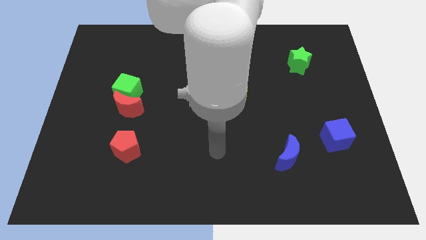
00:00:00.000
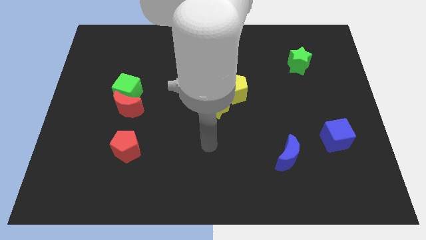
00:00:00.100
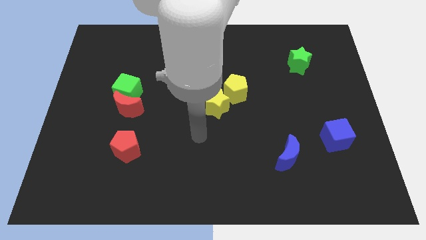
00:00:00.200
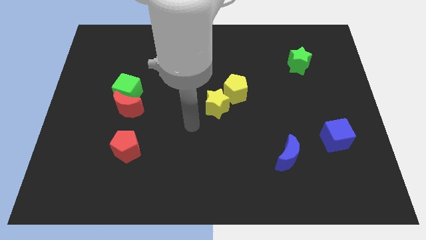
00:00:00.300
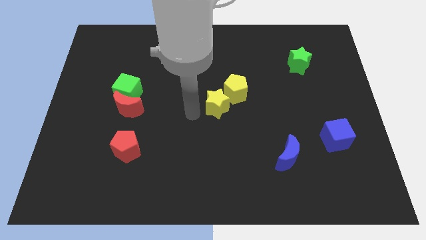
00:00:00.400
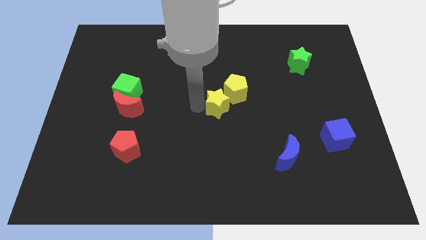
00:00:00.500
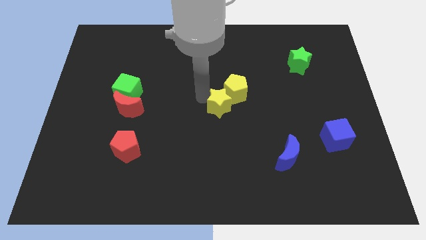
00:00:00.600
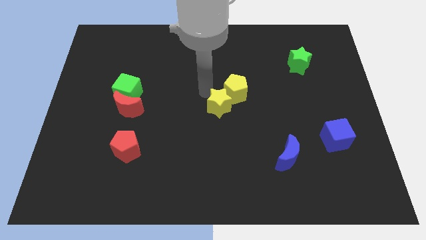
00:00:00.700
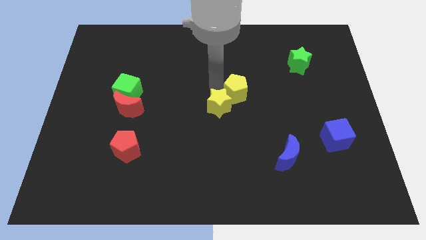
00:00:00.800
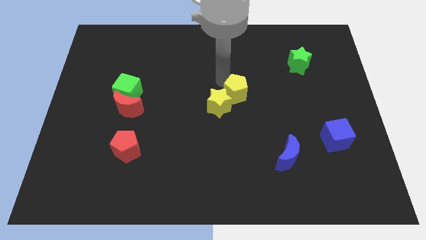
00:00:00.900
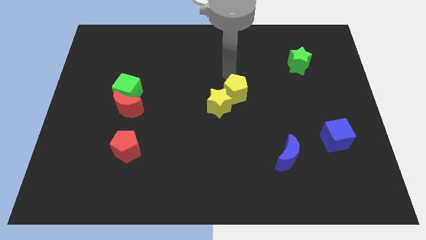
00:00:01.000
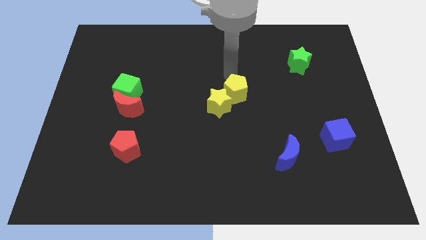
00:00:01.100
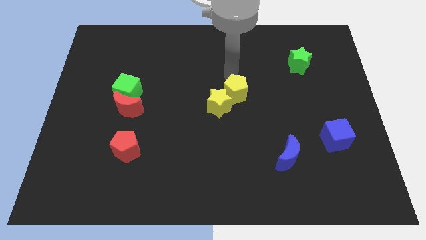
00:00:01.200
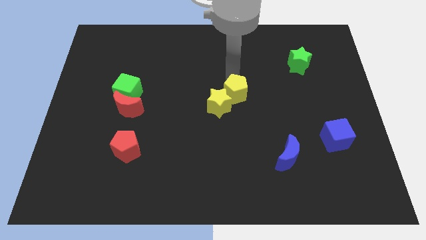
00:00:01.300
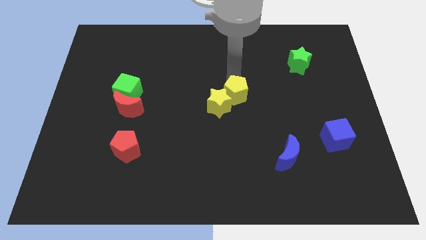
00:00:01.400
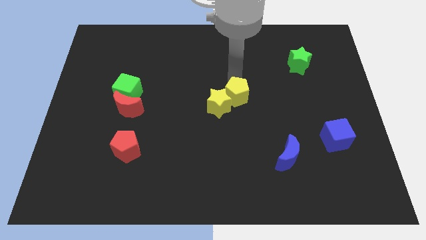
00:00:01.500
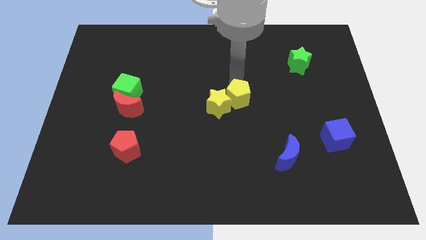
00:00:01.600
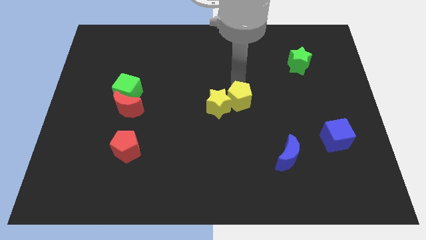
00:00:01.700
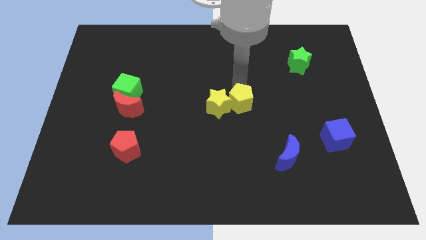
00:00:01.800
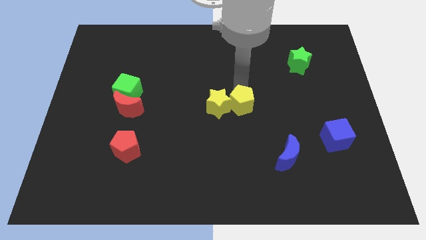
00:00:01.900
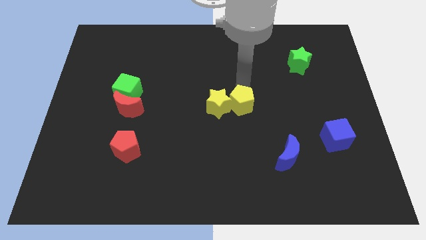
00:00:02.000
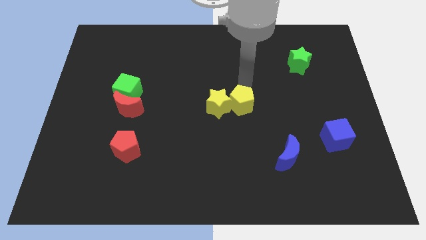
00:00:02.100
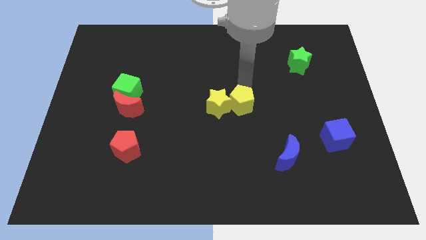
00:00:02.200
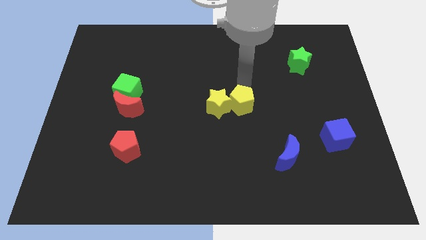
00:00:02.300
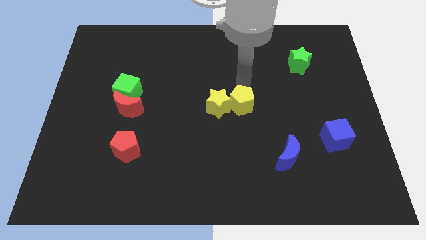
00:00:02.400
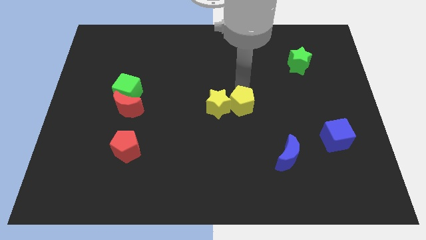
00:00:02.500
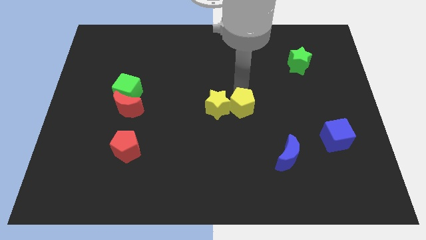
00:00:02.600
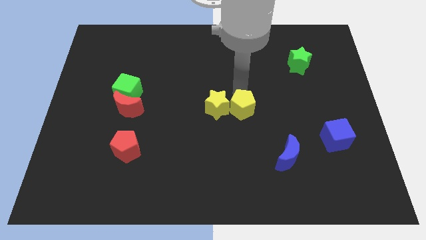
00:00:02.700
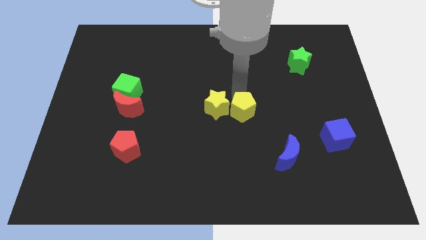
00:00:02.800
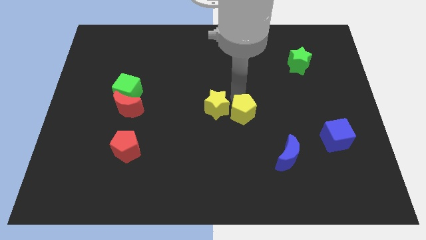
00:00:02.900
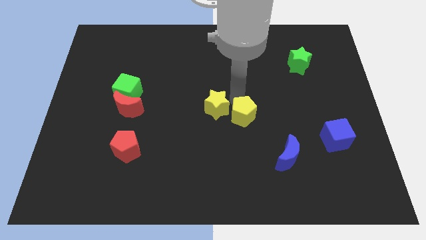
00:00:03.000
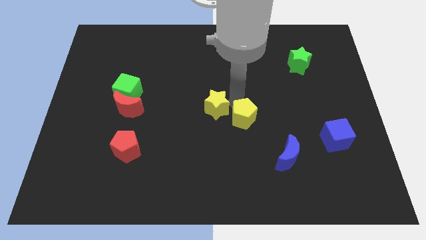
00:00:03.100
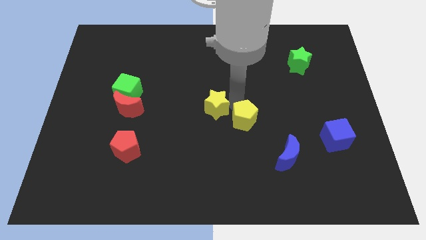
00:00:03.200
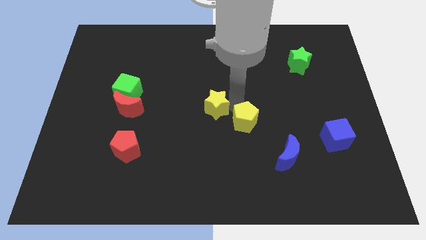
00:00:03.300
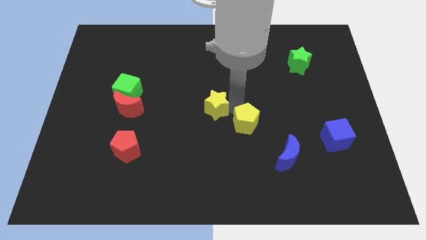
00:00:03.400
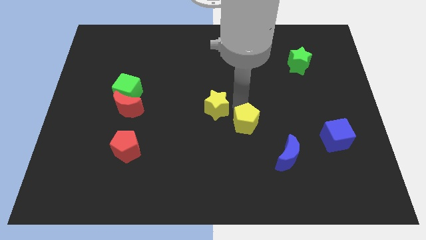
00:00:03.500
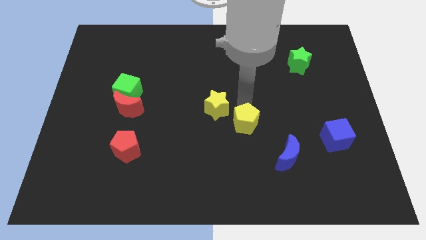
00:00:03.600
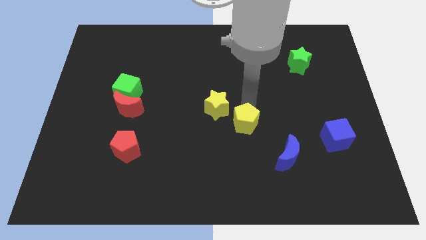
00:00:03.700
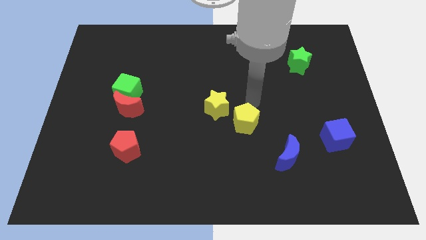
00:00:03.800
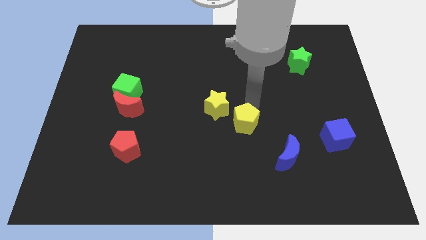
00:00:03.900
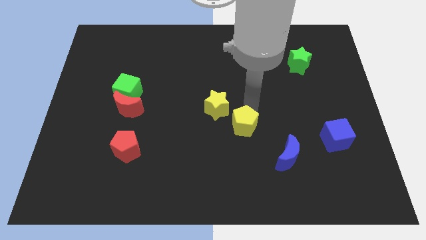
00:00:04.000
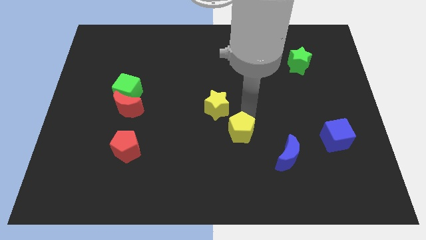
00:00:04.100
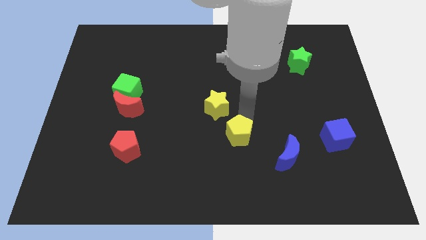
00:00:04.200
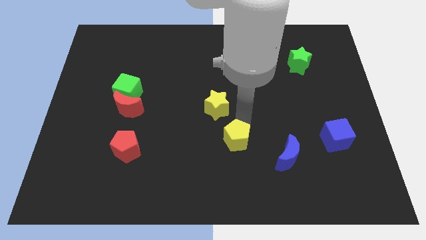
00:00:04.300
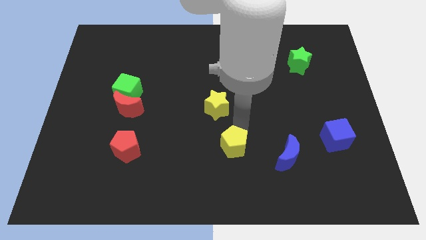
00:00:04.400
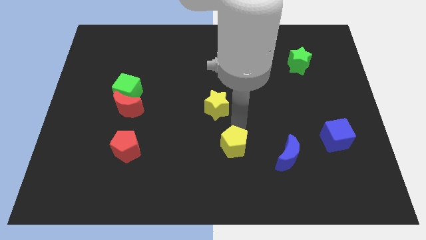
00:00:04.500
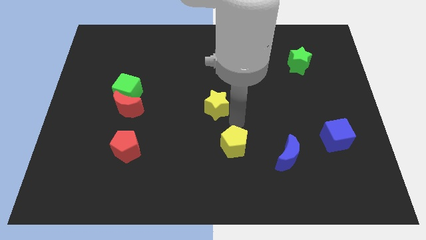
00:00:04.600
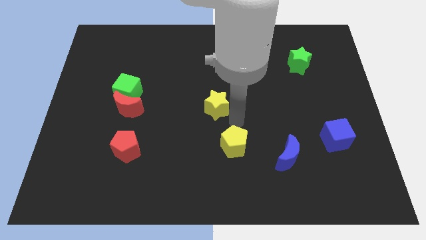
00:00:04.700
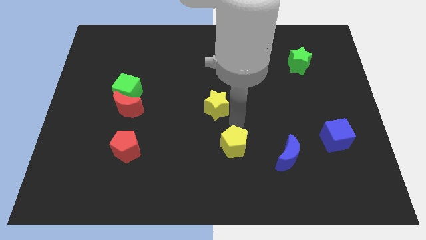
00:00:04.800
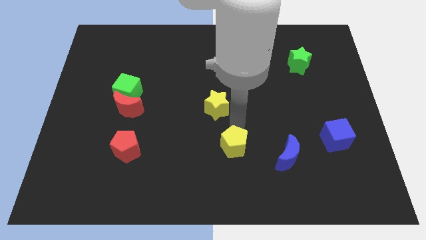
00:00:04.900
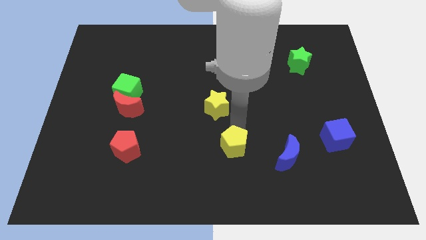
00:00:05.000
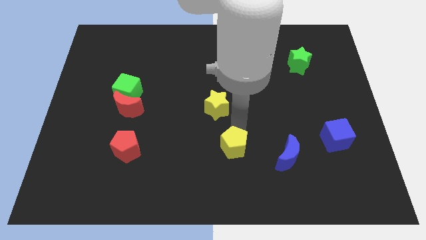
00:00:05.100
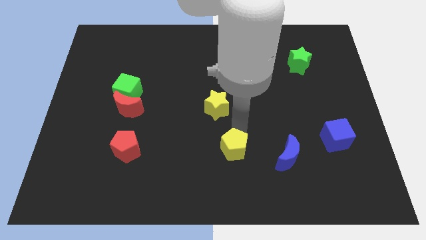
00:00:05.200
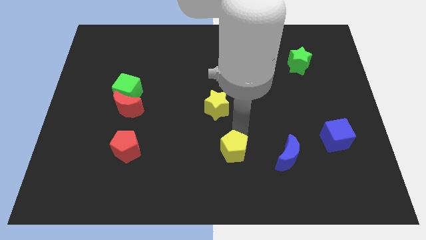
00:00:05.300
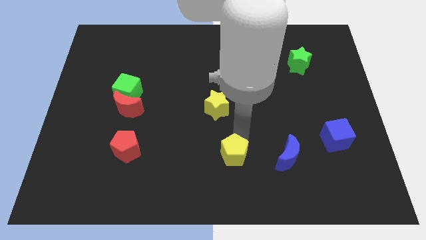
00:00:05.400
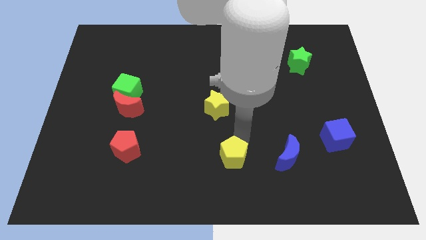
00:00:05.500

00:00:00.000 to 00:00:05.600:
push the yellow pentagon to the bottom side

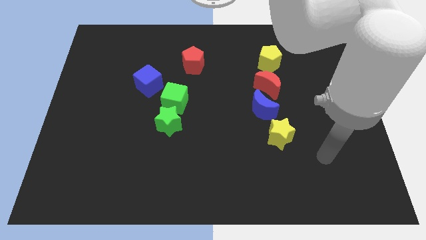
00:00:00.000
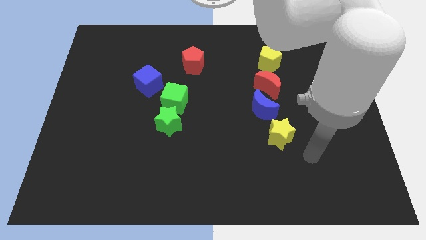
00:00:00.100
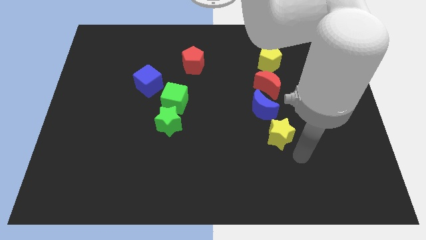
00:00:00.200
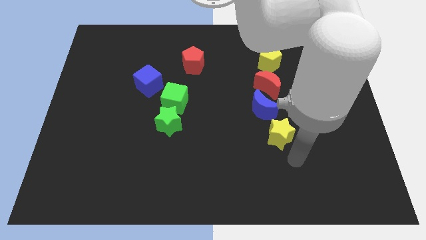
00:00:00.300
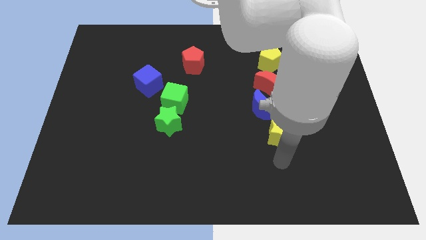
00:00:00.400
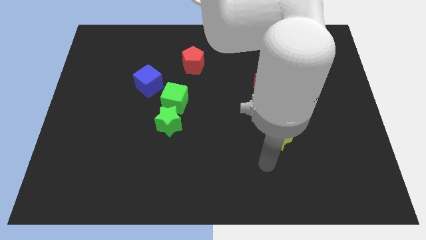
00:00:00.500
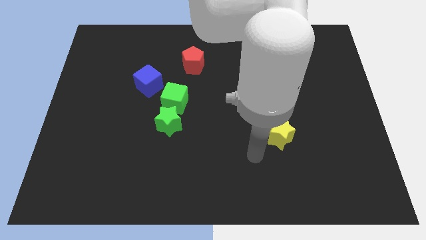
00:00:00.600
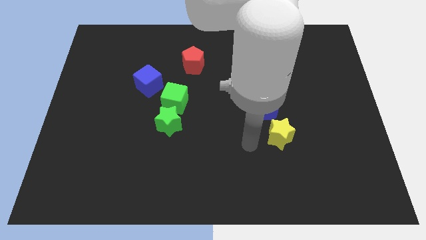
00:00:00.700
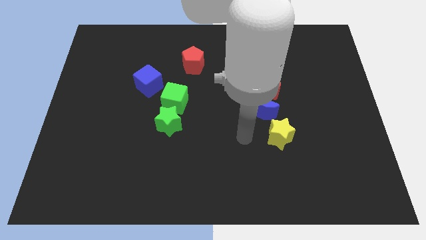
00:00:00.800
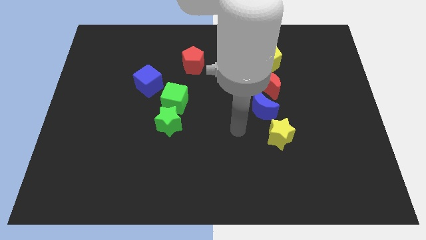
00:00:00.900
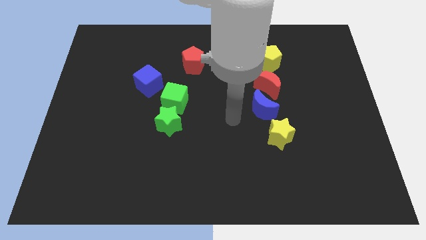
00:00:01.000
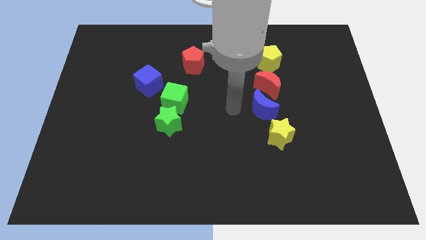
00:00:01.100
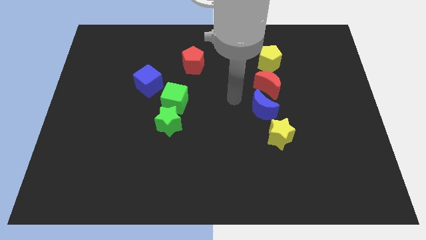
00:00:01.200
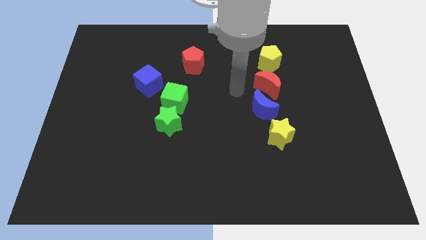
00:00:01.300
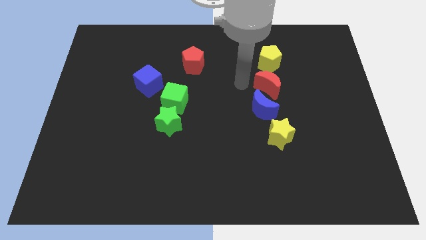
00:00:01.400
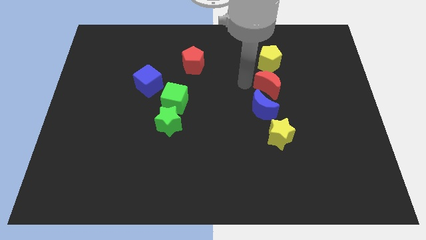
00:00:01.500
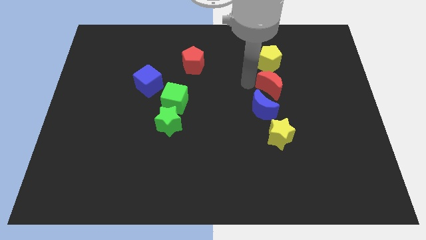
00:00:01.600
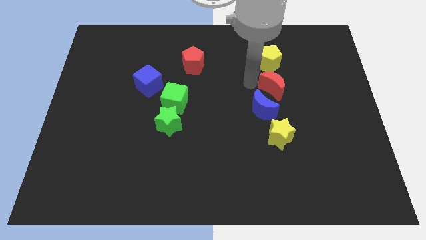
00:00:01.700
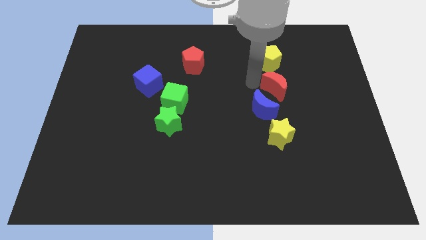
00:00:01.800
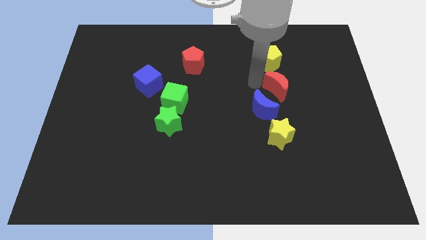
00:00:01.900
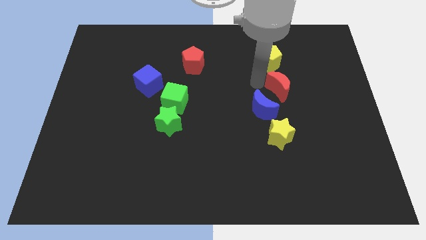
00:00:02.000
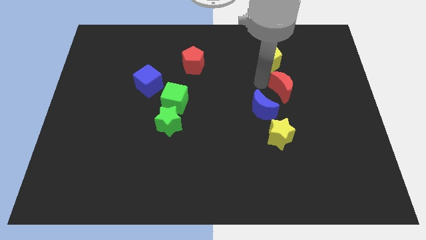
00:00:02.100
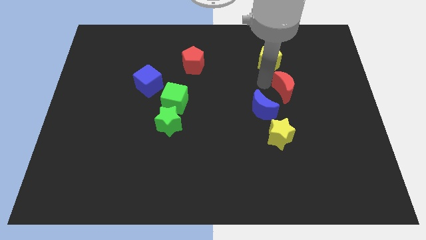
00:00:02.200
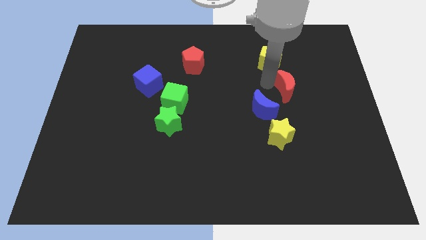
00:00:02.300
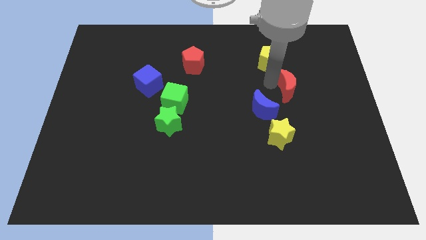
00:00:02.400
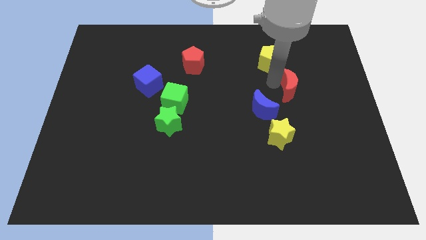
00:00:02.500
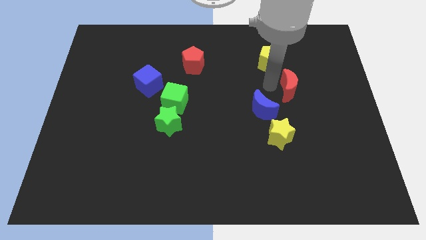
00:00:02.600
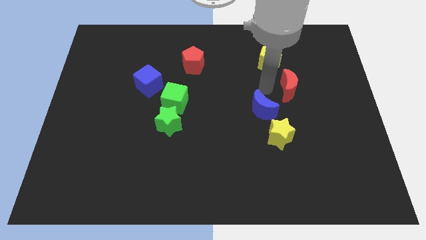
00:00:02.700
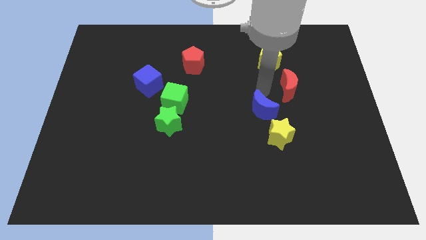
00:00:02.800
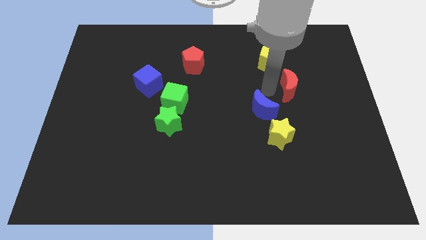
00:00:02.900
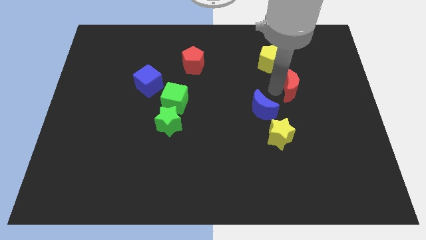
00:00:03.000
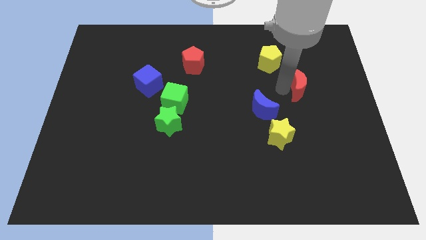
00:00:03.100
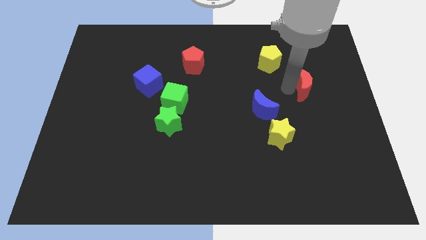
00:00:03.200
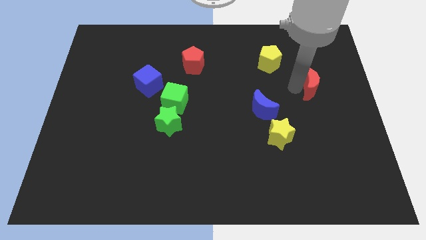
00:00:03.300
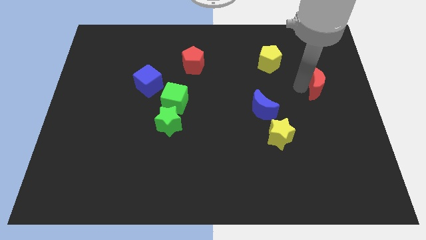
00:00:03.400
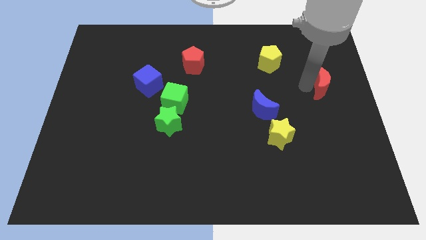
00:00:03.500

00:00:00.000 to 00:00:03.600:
put the red moon to the right side of the board
